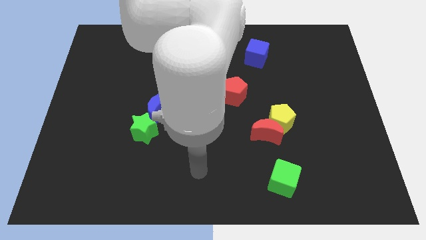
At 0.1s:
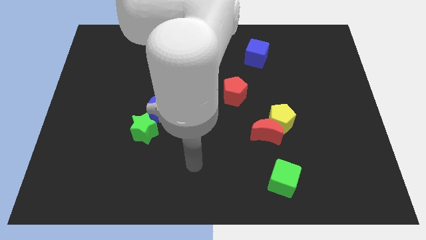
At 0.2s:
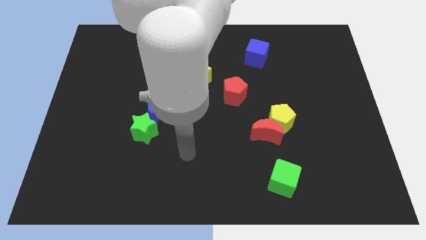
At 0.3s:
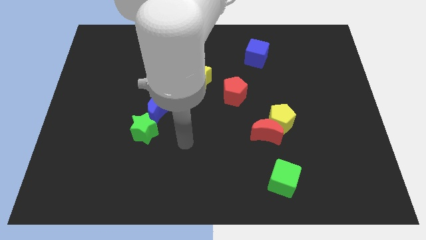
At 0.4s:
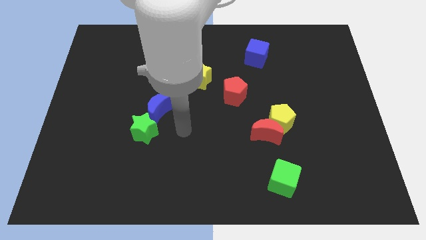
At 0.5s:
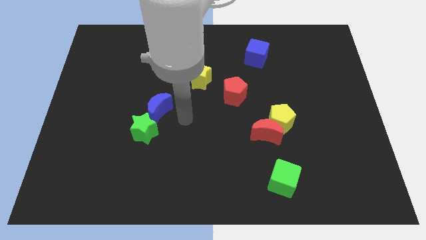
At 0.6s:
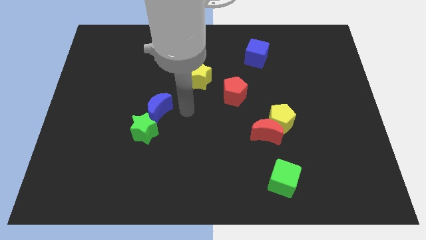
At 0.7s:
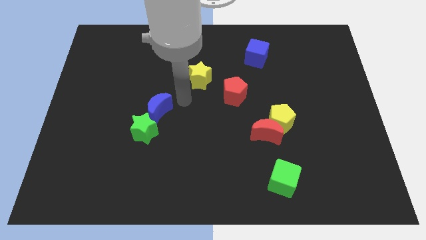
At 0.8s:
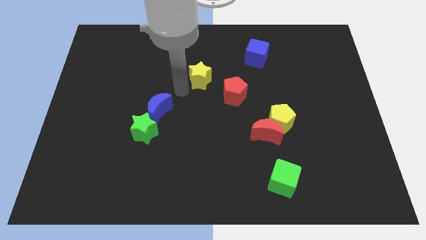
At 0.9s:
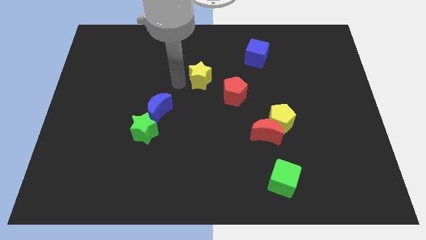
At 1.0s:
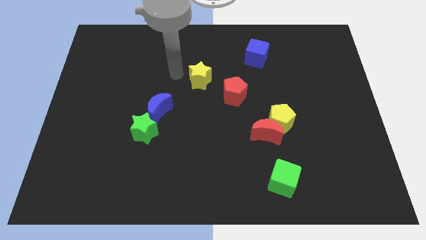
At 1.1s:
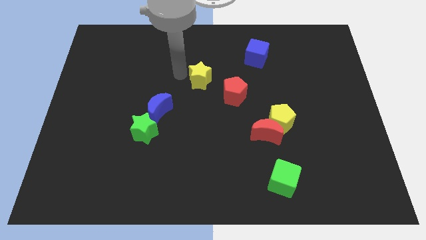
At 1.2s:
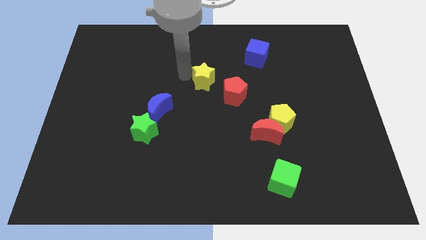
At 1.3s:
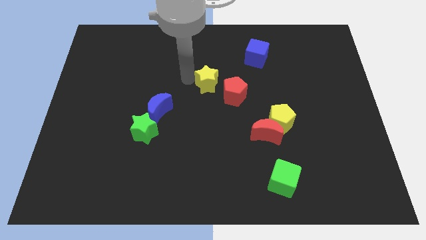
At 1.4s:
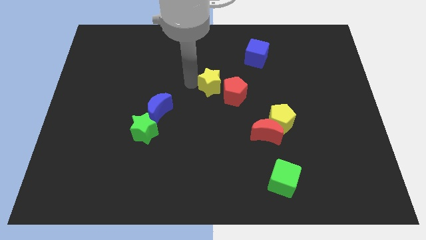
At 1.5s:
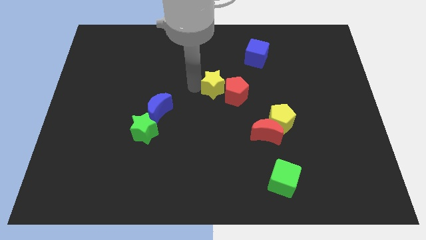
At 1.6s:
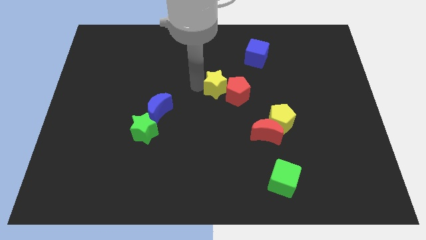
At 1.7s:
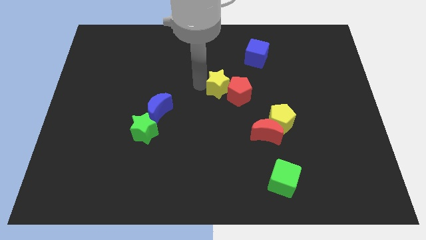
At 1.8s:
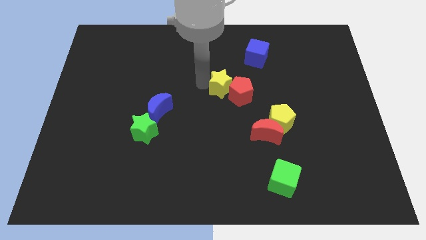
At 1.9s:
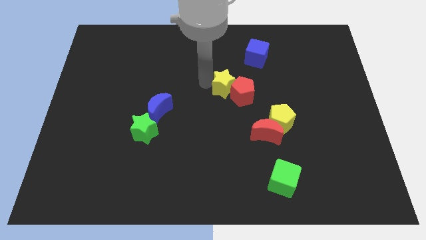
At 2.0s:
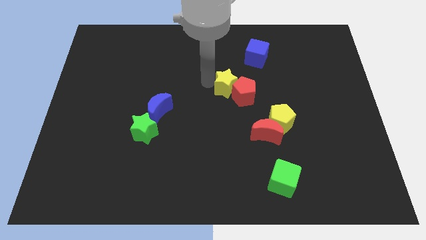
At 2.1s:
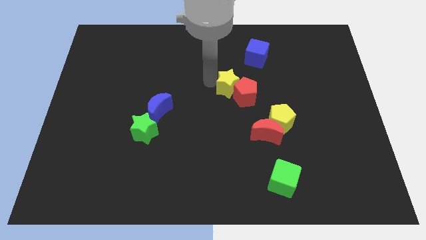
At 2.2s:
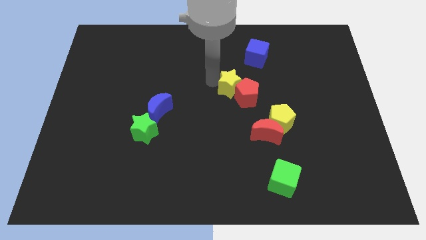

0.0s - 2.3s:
move the yellow star somewhat right

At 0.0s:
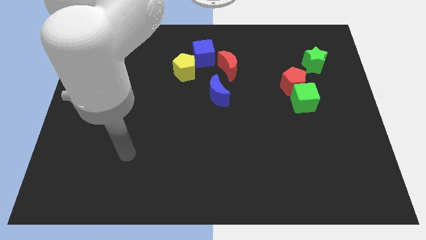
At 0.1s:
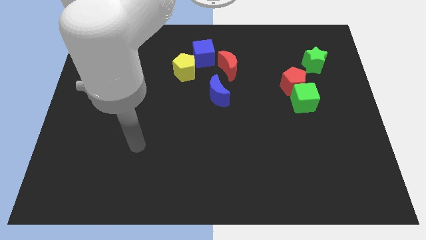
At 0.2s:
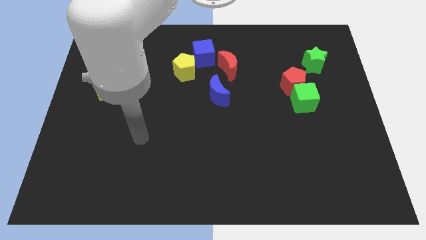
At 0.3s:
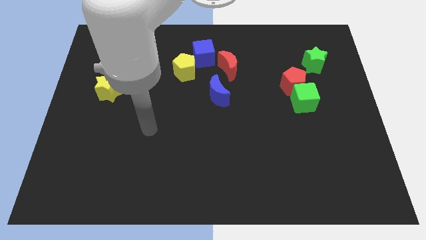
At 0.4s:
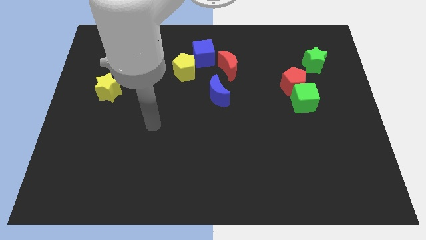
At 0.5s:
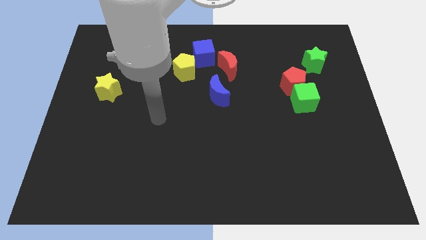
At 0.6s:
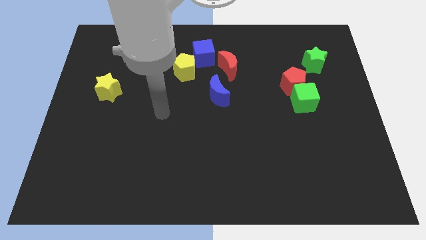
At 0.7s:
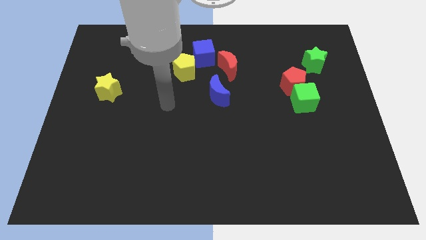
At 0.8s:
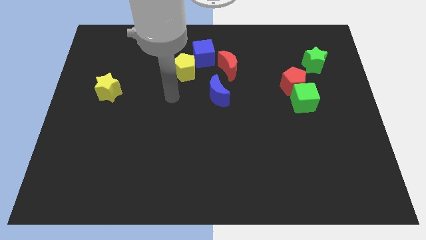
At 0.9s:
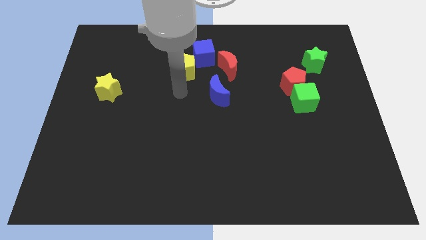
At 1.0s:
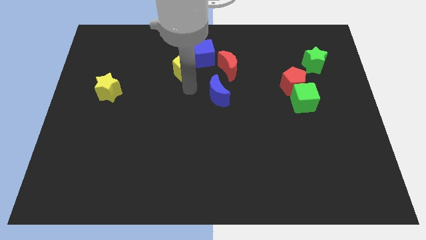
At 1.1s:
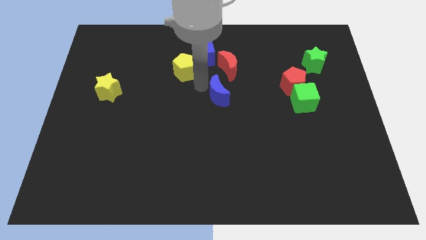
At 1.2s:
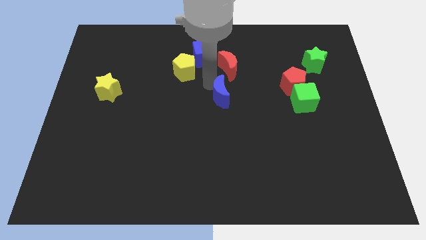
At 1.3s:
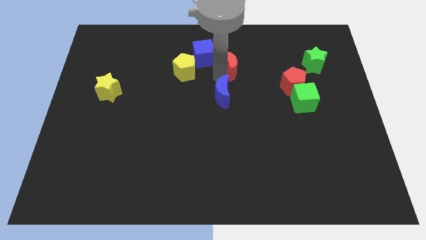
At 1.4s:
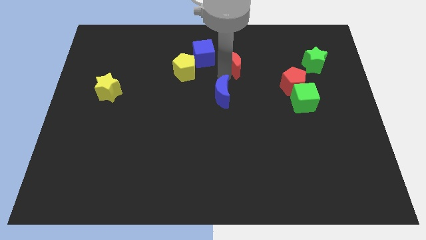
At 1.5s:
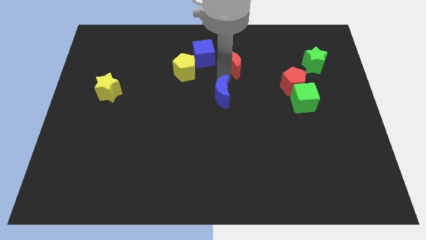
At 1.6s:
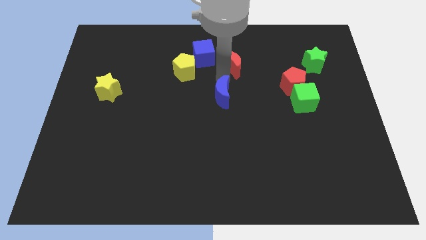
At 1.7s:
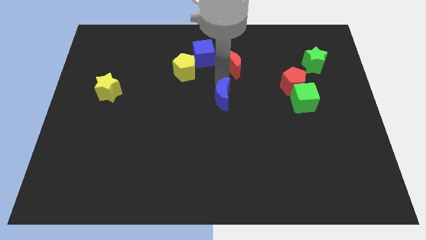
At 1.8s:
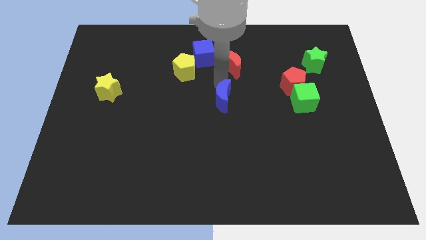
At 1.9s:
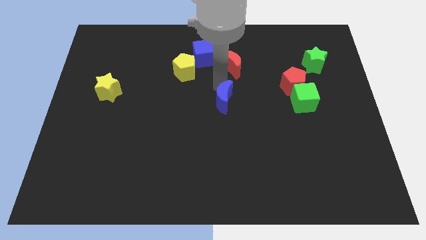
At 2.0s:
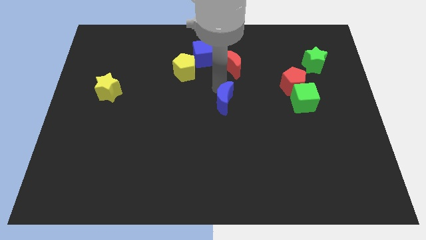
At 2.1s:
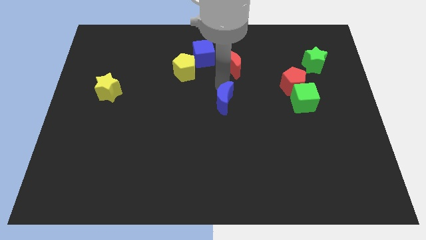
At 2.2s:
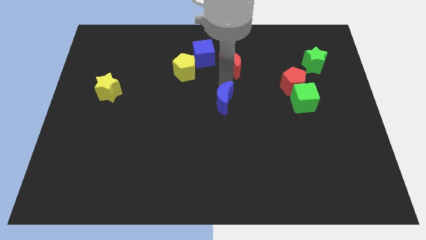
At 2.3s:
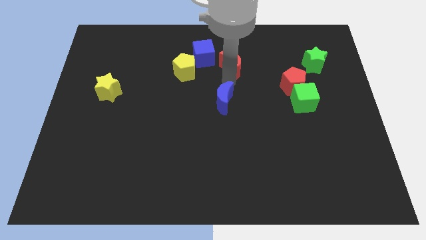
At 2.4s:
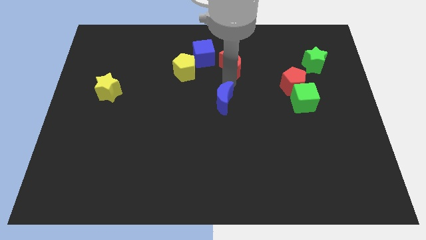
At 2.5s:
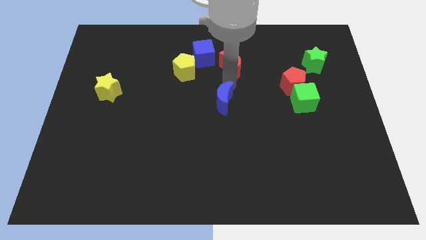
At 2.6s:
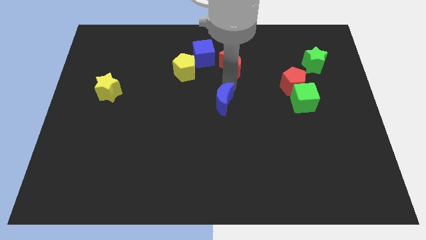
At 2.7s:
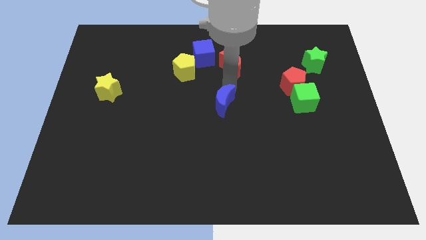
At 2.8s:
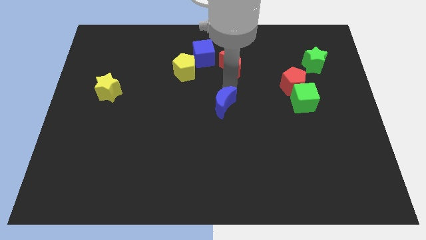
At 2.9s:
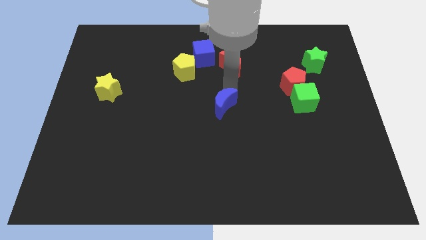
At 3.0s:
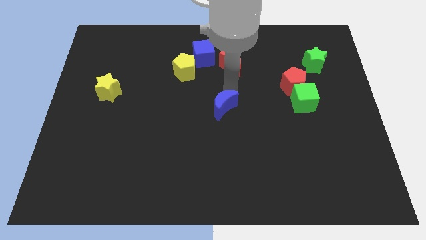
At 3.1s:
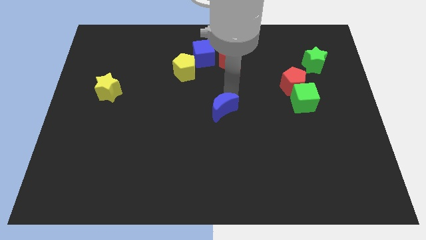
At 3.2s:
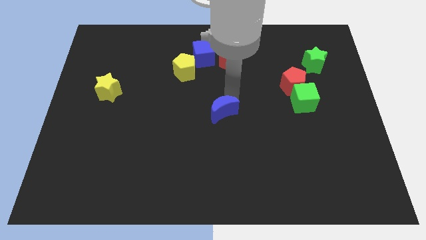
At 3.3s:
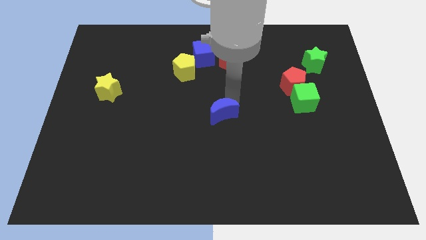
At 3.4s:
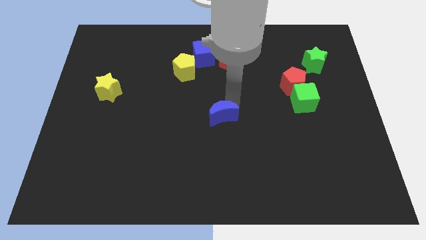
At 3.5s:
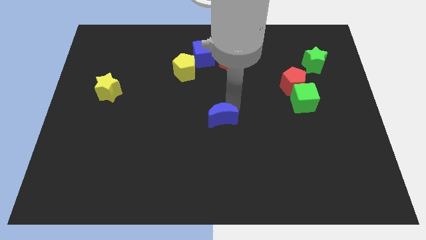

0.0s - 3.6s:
slightly push the blue moon downwards

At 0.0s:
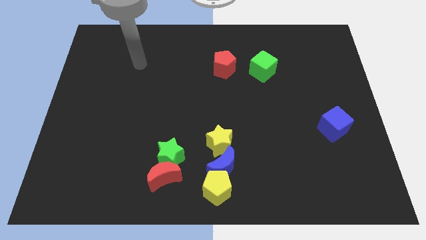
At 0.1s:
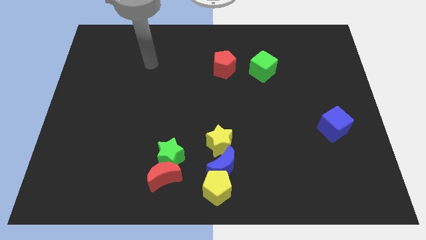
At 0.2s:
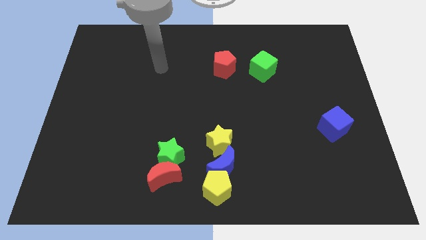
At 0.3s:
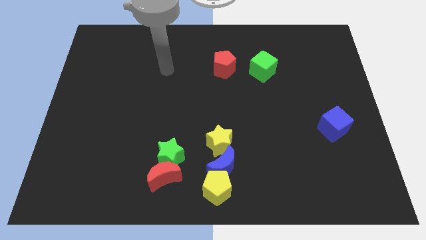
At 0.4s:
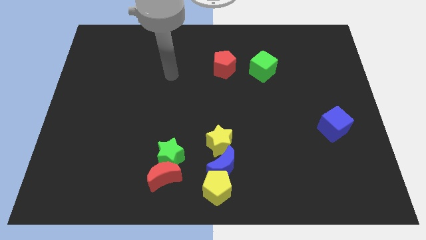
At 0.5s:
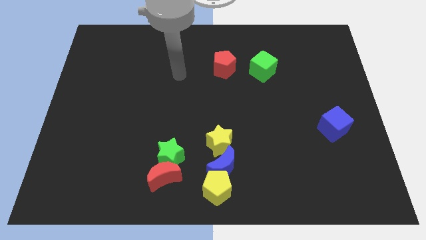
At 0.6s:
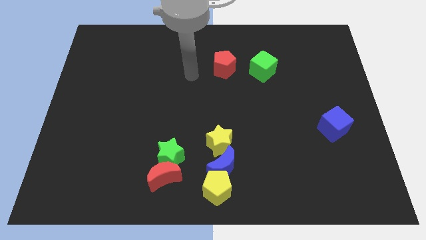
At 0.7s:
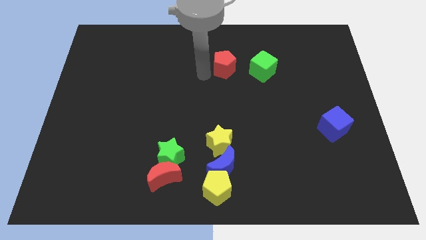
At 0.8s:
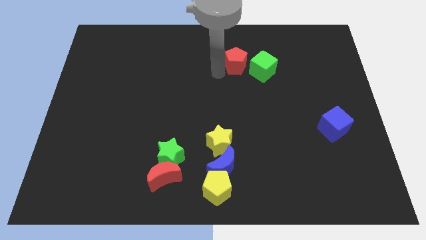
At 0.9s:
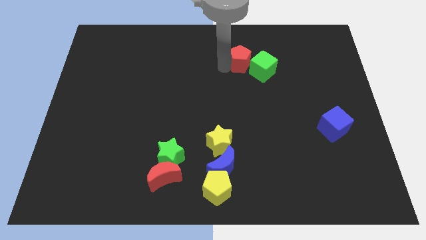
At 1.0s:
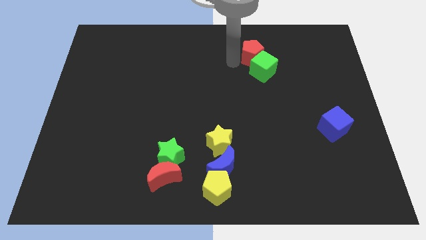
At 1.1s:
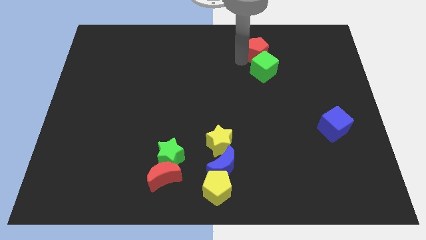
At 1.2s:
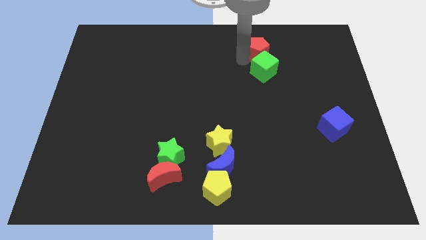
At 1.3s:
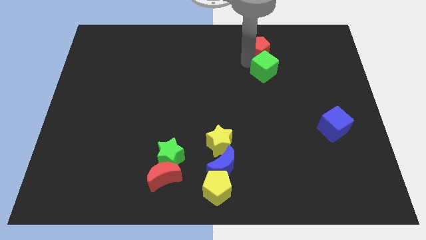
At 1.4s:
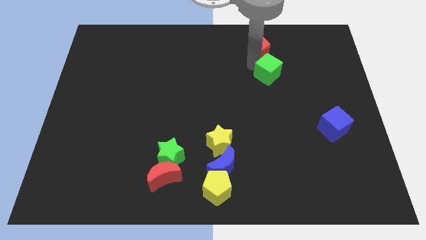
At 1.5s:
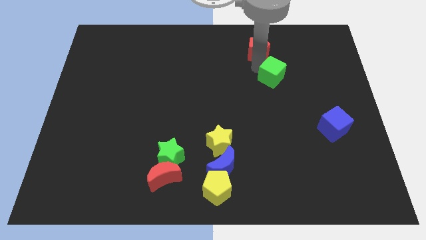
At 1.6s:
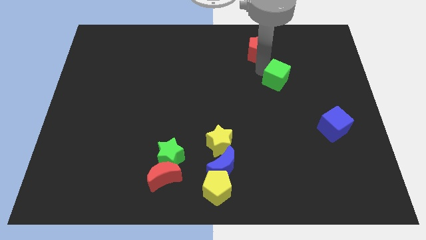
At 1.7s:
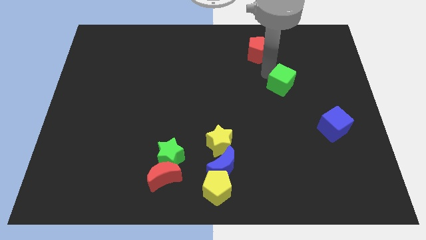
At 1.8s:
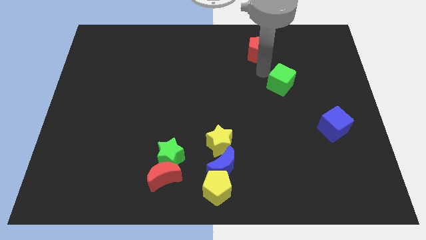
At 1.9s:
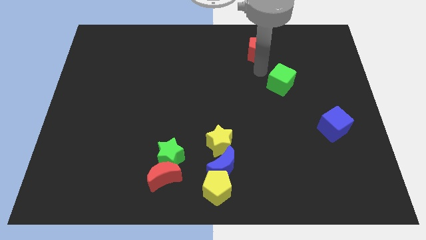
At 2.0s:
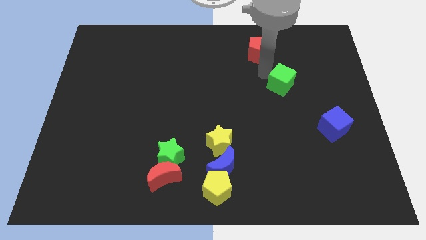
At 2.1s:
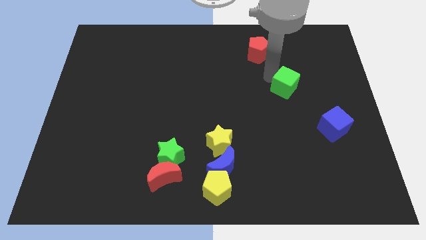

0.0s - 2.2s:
slide the green cube downwards and then to the right somewhat
